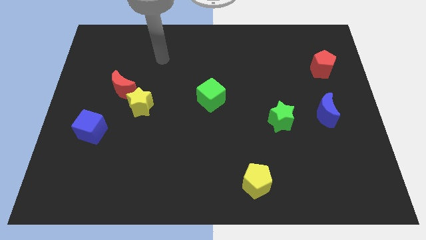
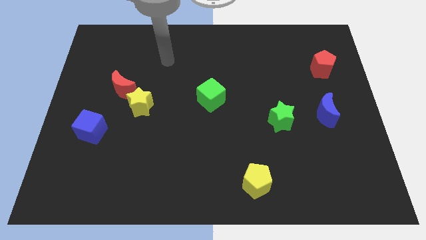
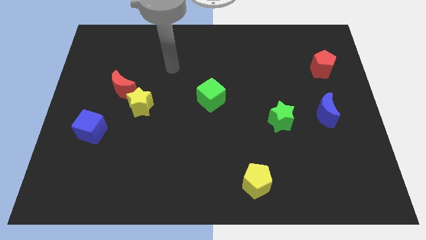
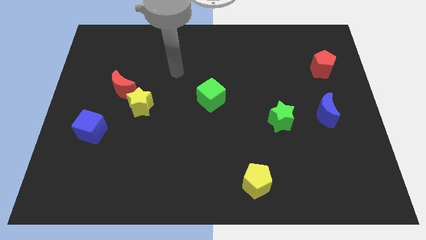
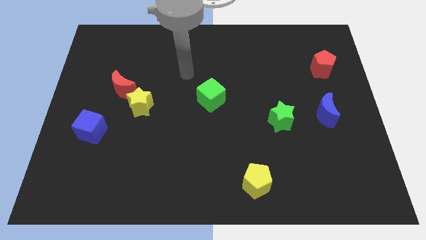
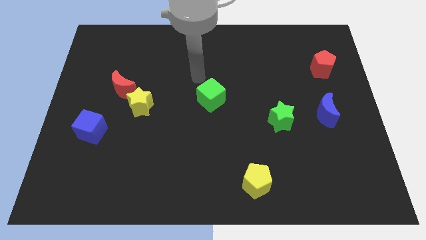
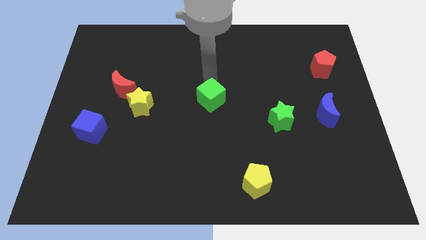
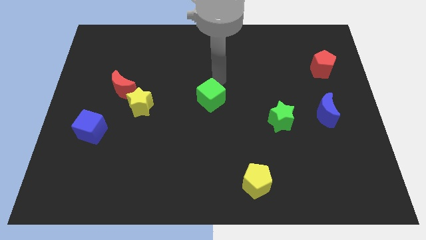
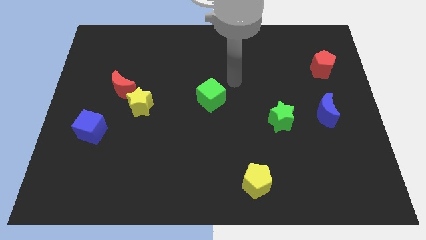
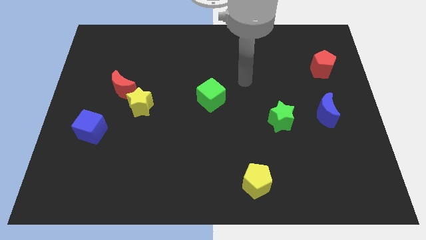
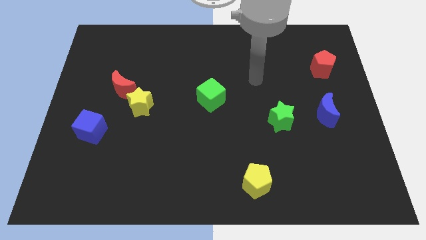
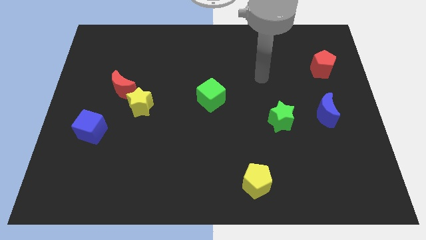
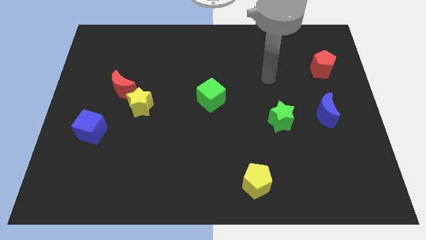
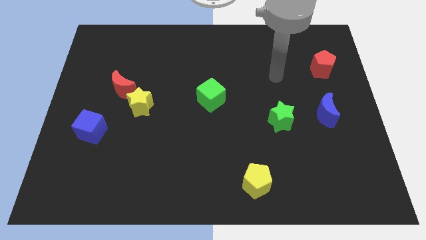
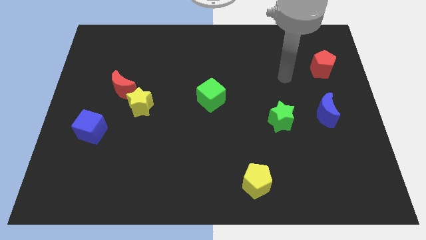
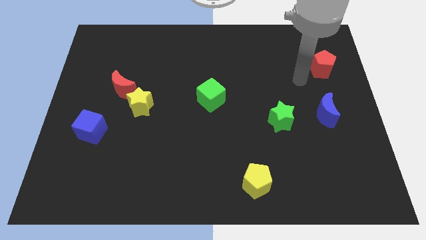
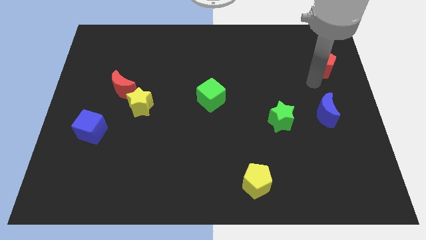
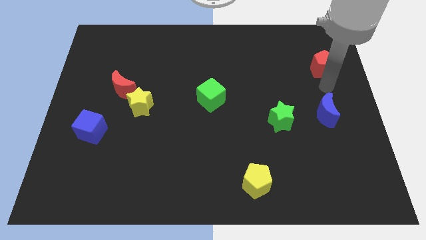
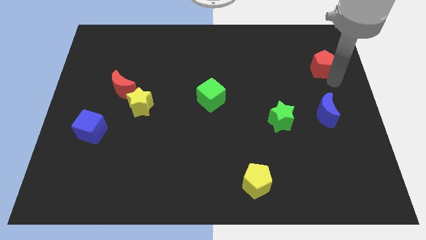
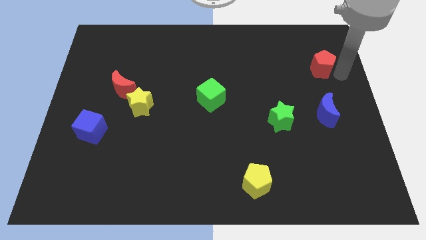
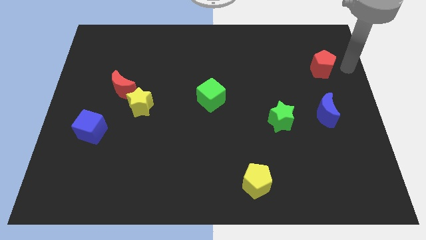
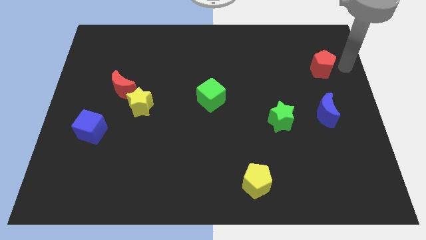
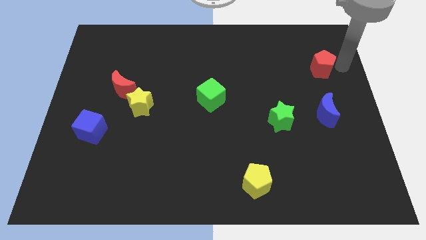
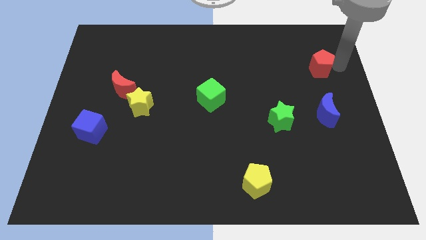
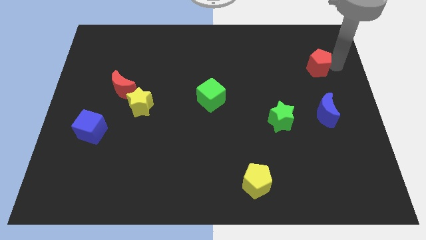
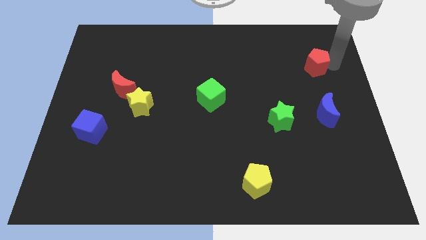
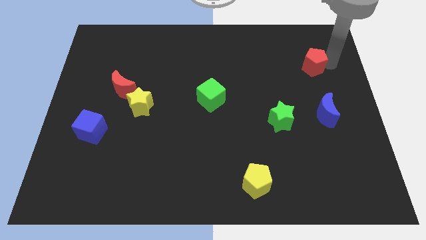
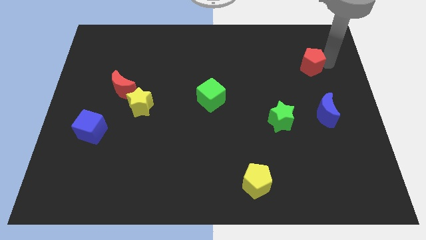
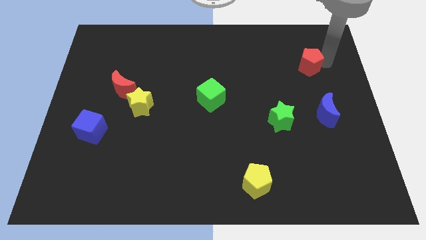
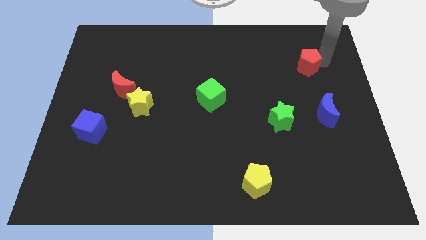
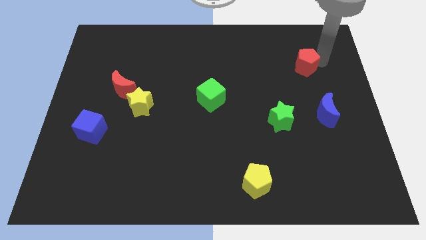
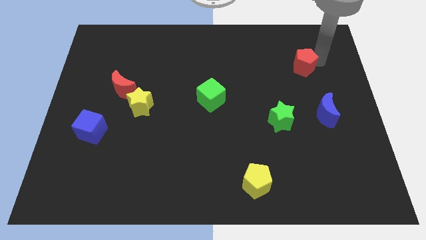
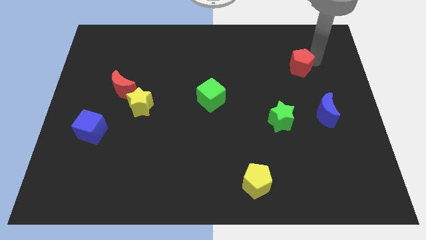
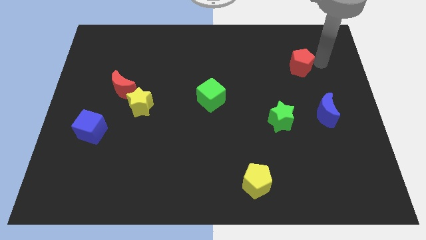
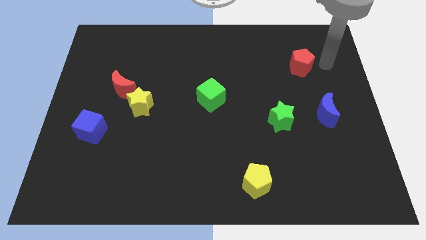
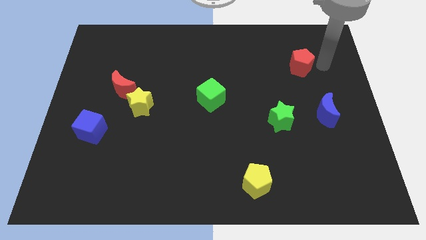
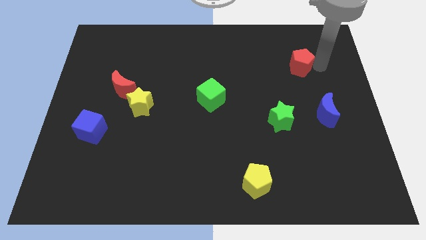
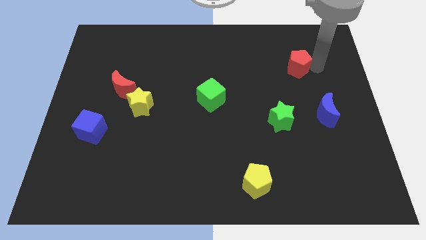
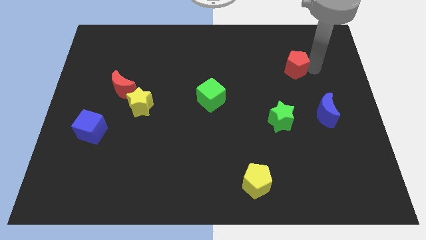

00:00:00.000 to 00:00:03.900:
slightly push the red pentagon to the left

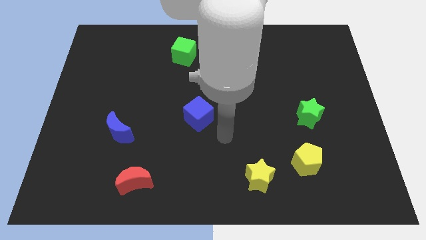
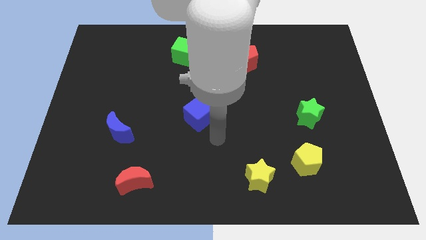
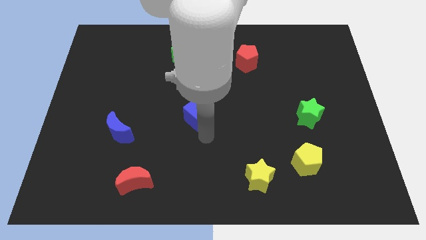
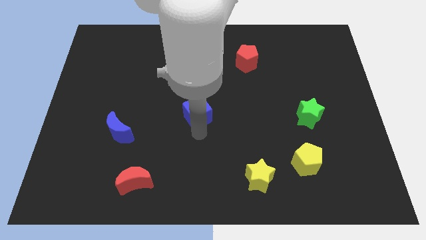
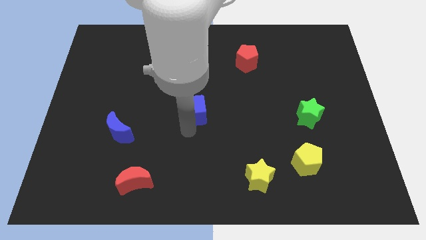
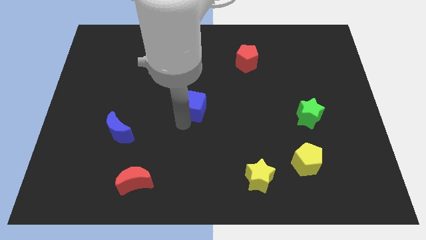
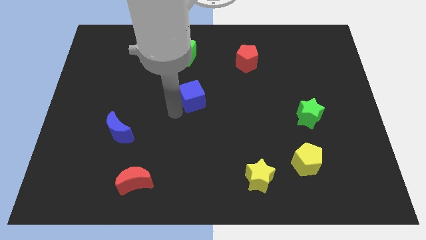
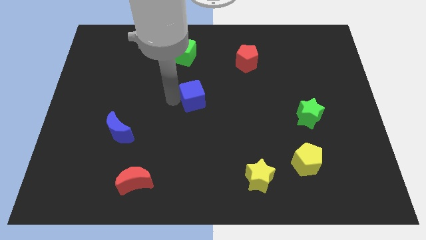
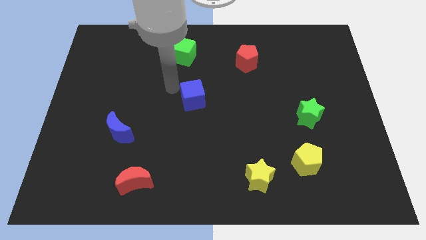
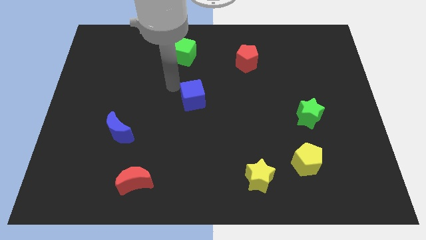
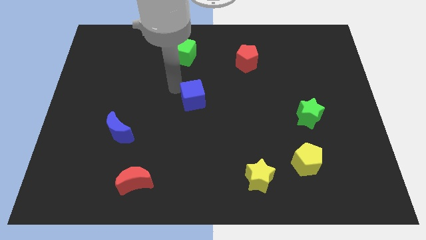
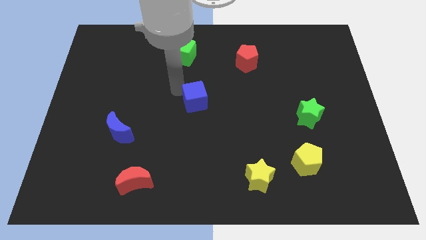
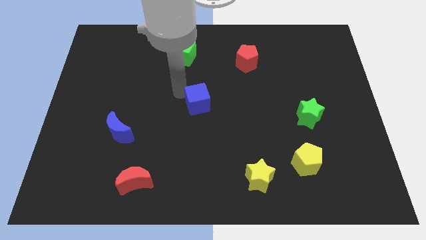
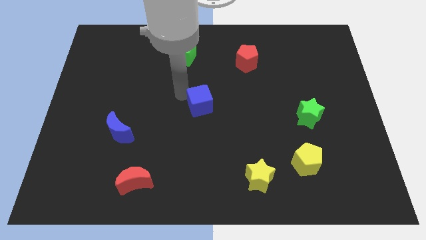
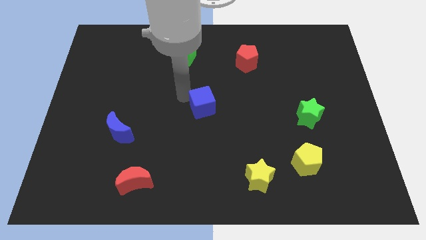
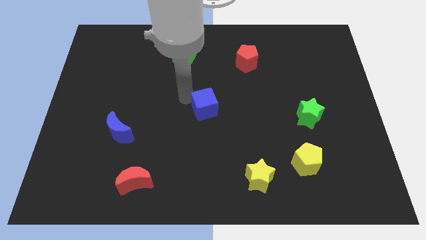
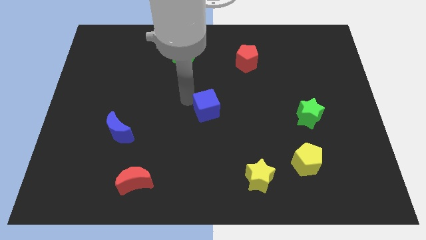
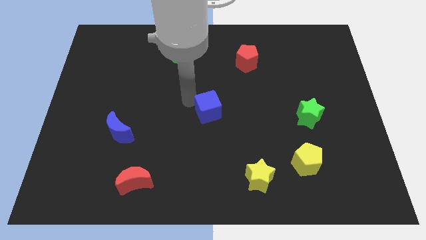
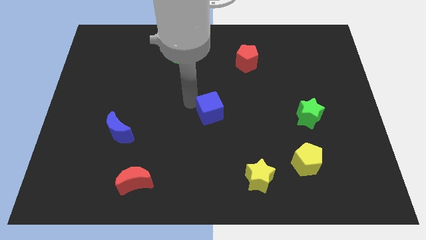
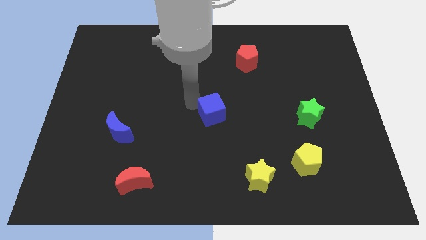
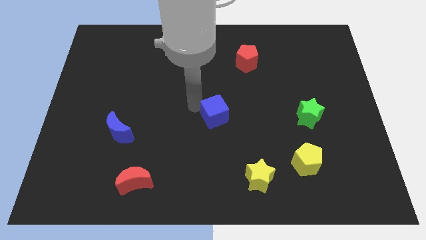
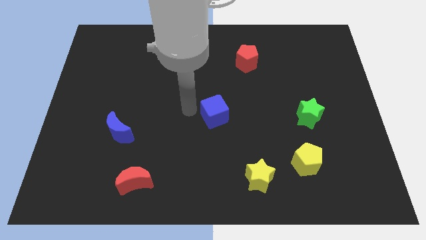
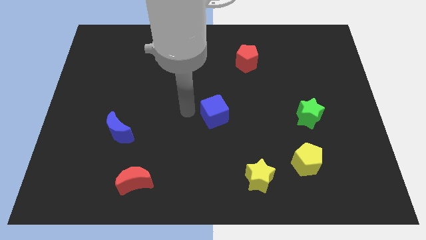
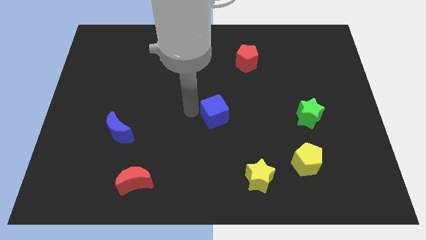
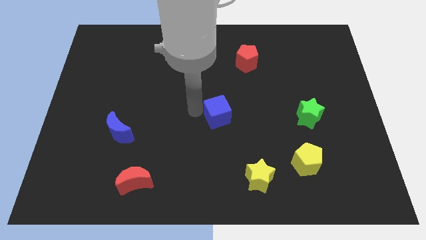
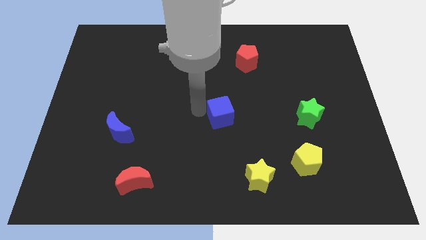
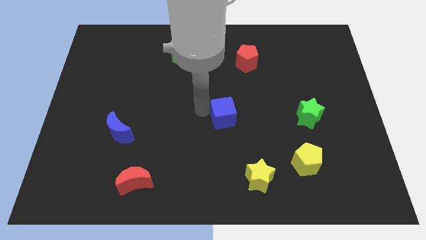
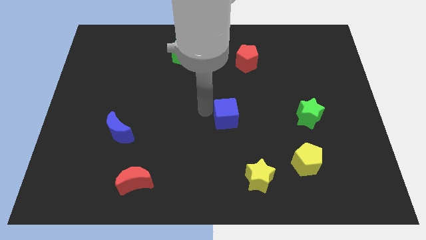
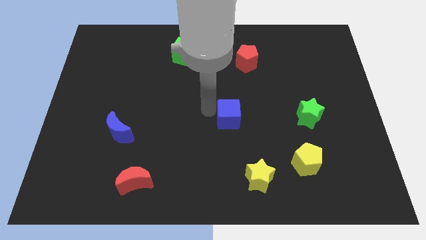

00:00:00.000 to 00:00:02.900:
push the blue cube right a little

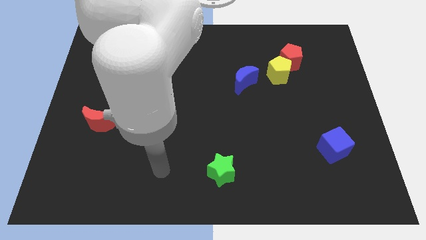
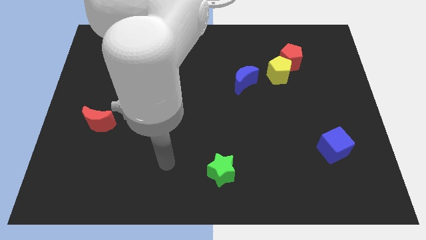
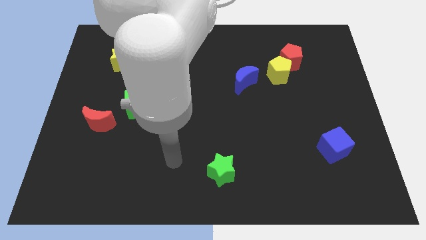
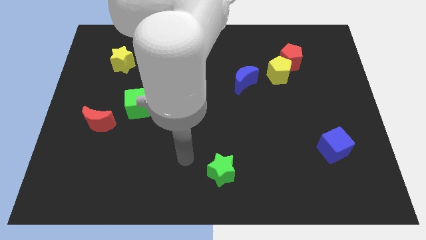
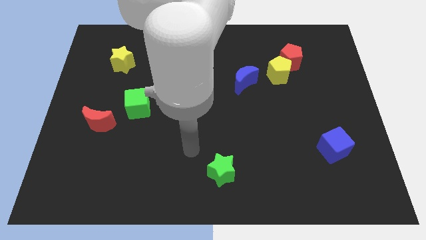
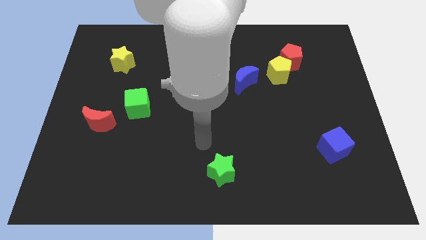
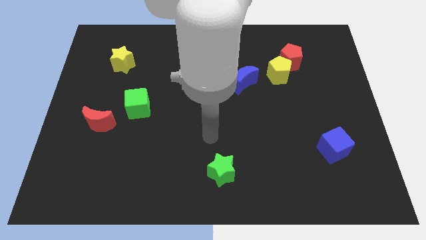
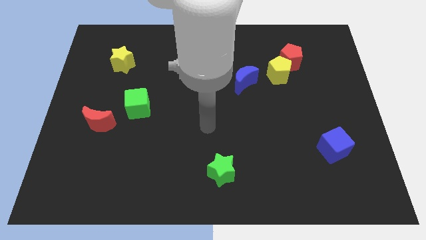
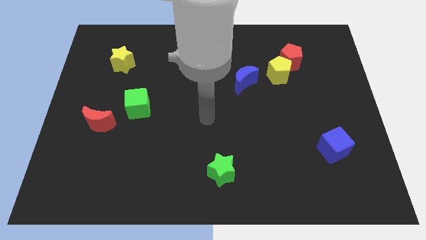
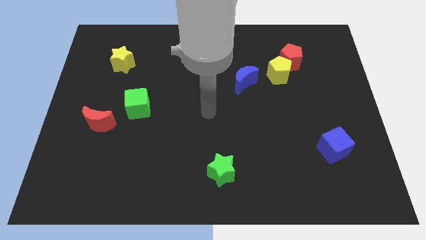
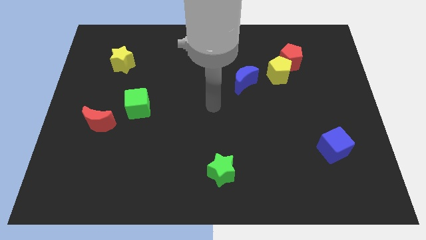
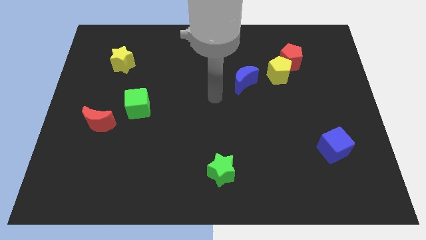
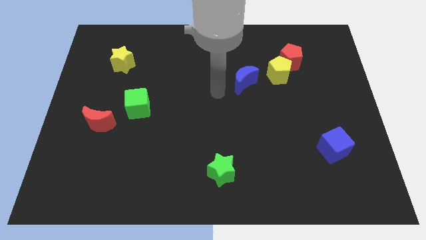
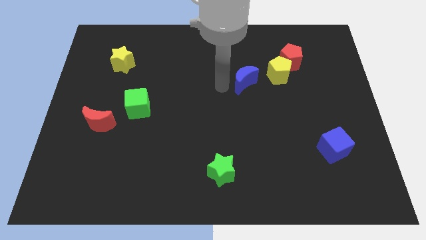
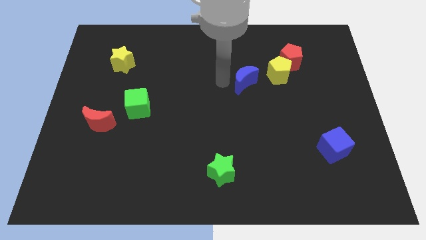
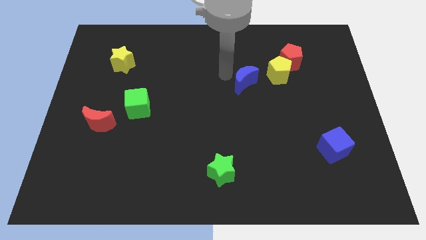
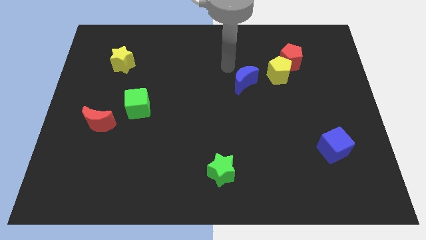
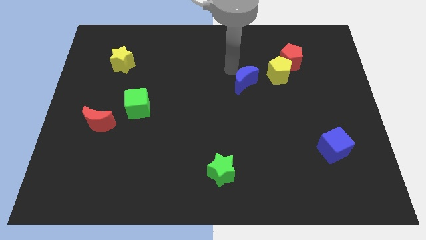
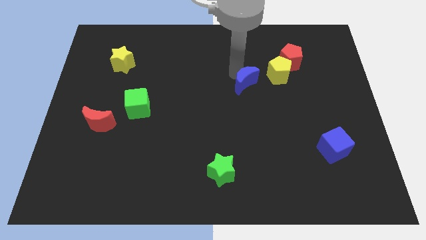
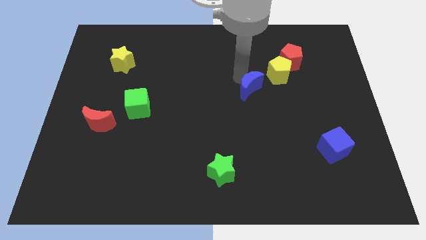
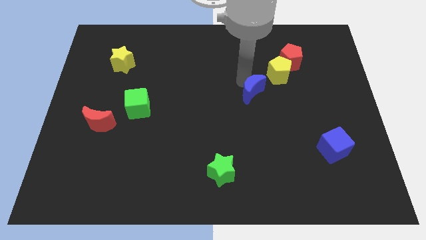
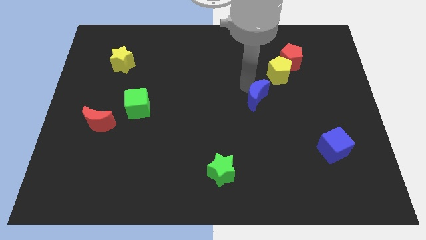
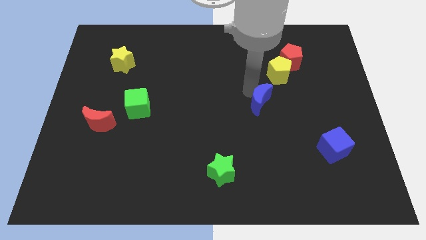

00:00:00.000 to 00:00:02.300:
slide the blue moon downwards and right a bit
